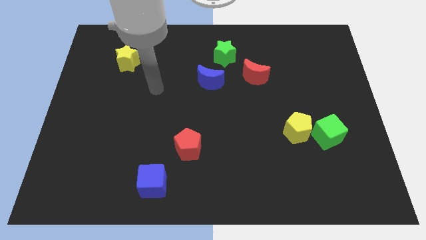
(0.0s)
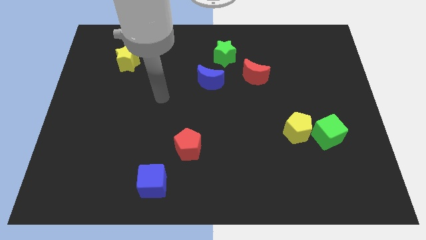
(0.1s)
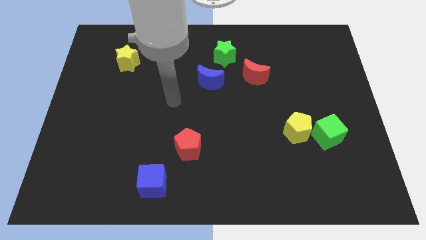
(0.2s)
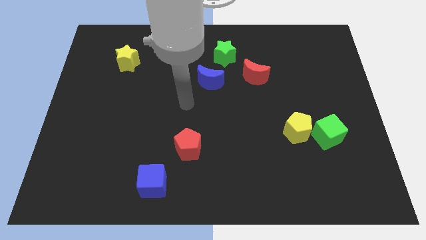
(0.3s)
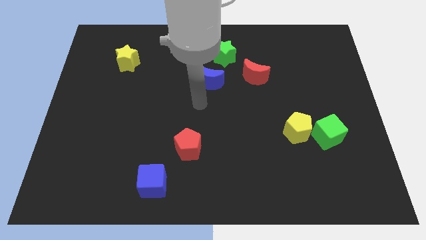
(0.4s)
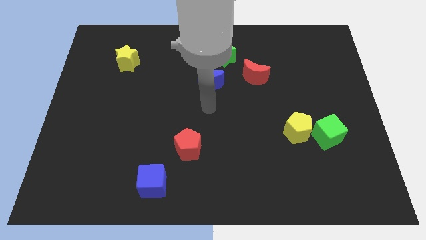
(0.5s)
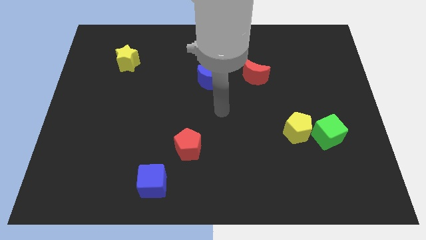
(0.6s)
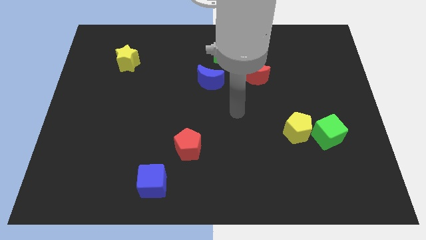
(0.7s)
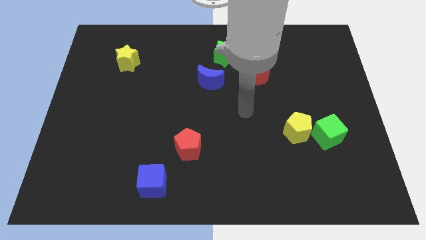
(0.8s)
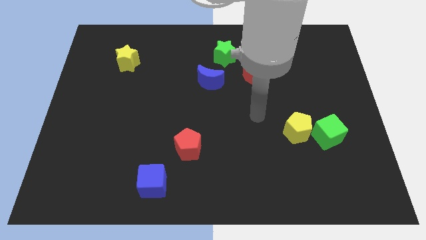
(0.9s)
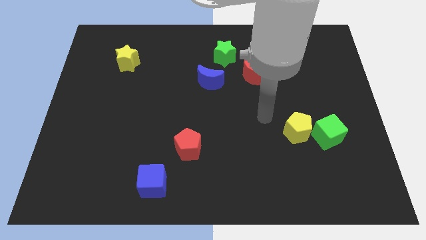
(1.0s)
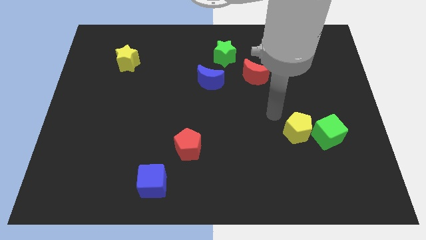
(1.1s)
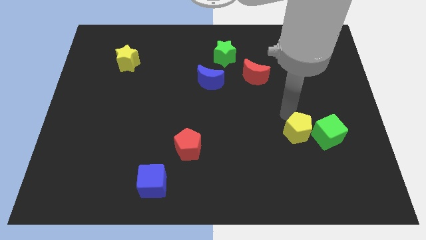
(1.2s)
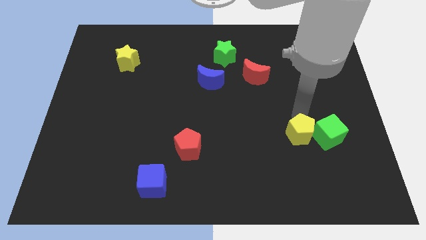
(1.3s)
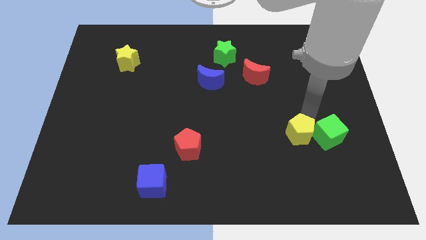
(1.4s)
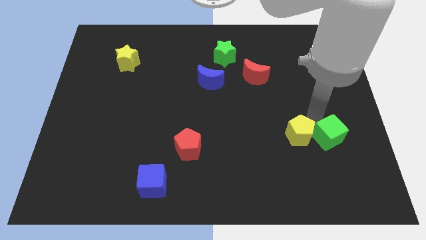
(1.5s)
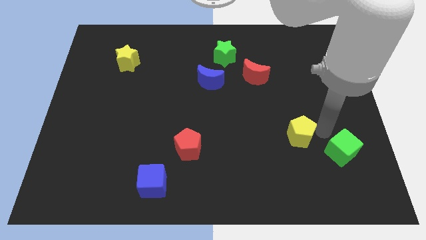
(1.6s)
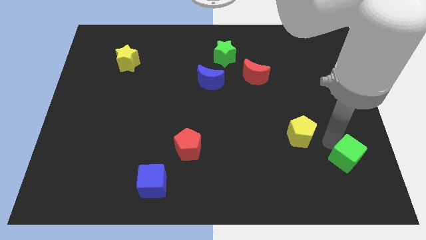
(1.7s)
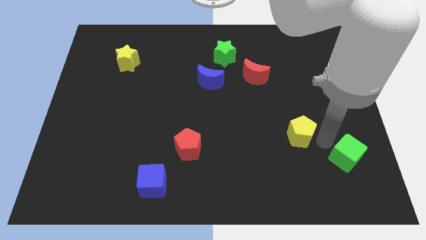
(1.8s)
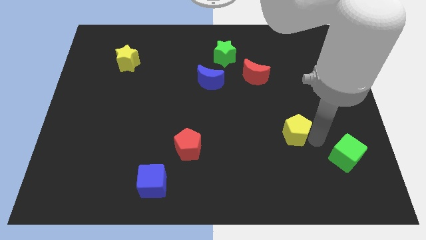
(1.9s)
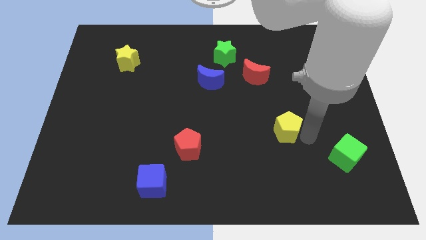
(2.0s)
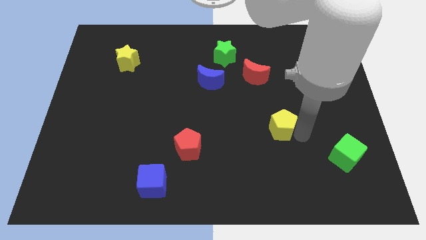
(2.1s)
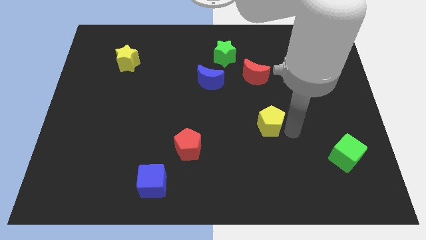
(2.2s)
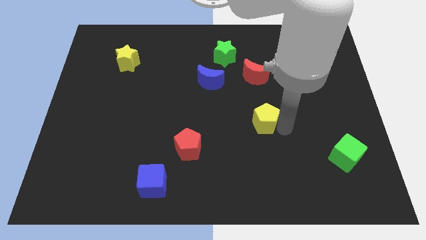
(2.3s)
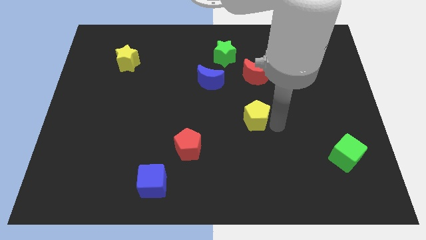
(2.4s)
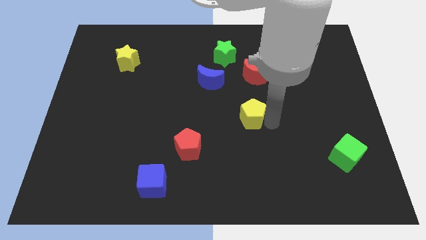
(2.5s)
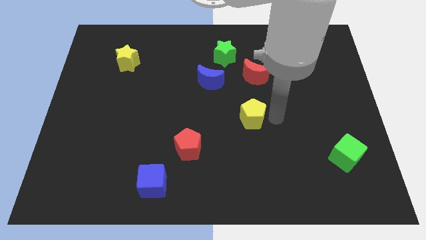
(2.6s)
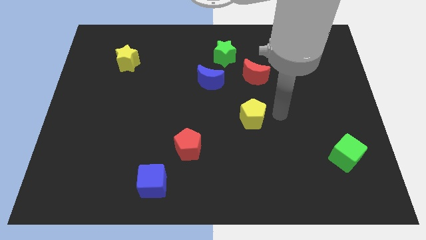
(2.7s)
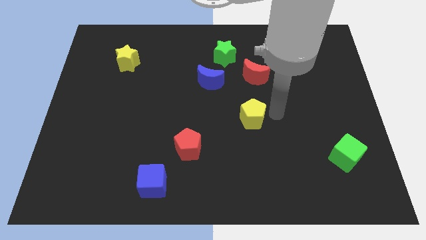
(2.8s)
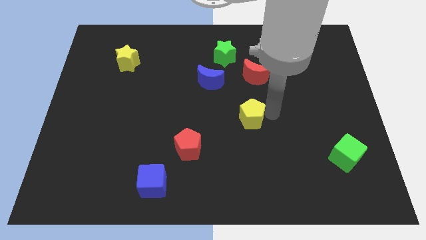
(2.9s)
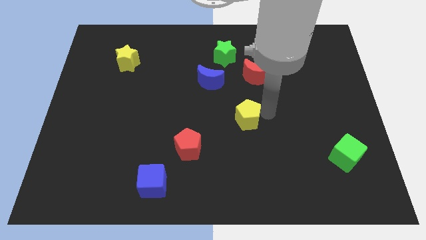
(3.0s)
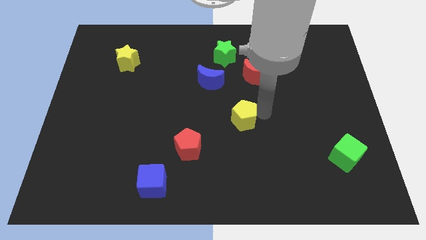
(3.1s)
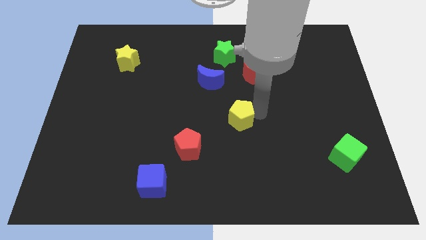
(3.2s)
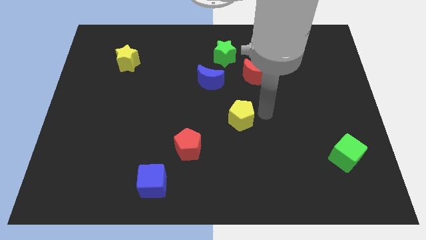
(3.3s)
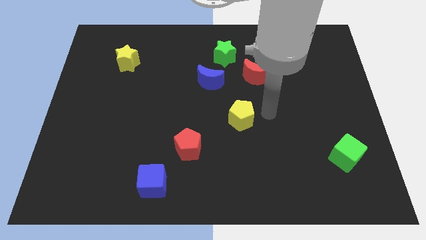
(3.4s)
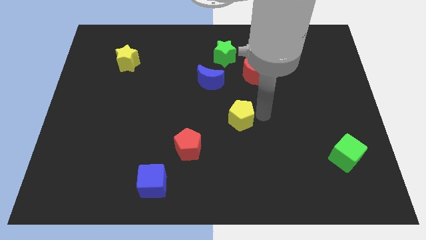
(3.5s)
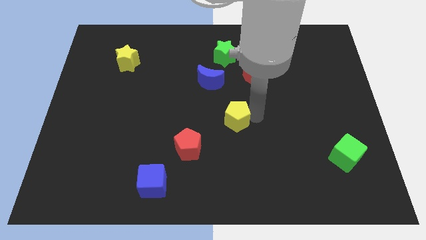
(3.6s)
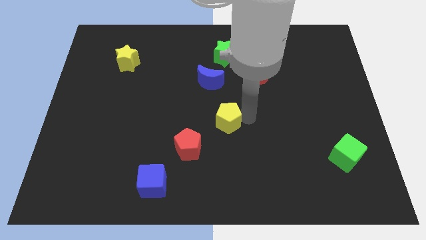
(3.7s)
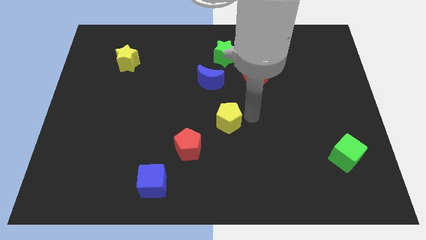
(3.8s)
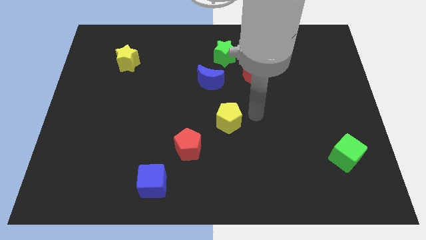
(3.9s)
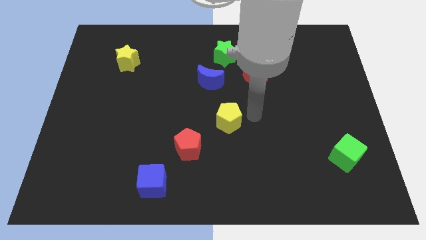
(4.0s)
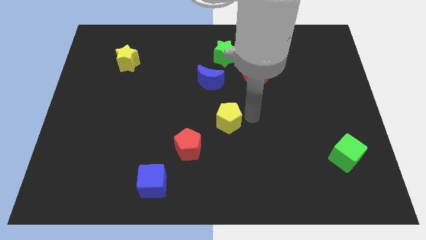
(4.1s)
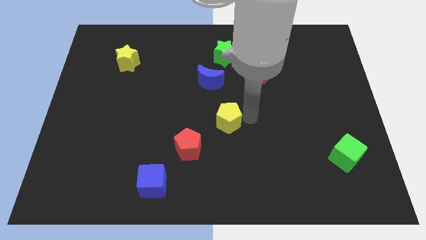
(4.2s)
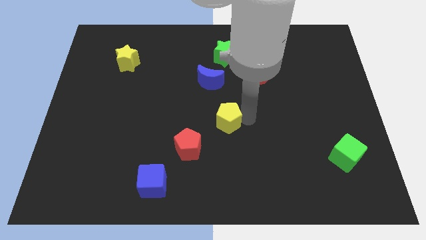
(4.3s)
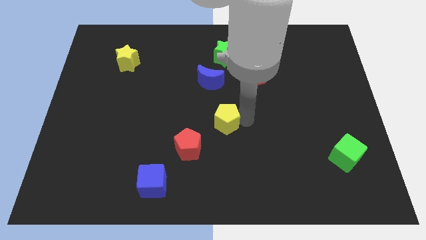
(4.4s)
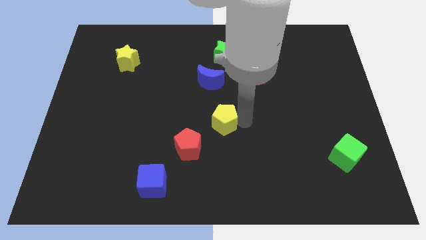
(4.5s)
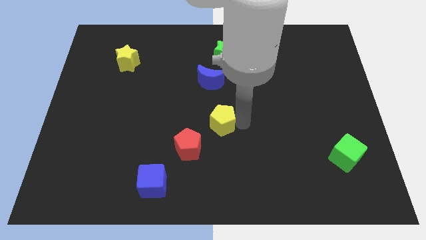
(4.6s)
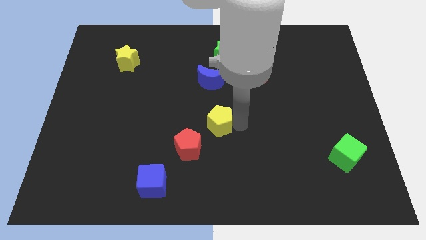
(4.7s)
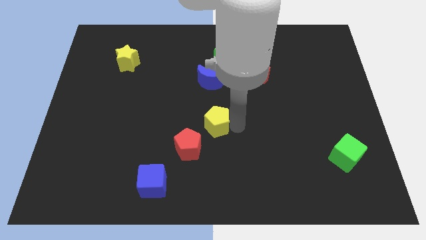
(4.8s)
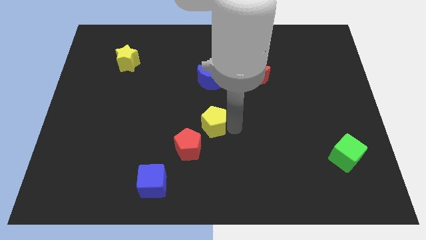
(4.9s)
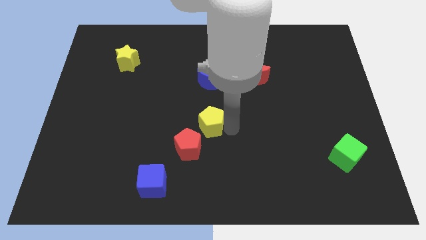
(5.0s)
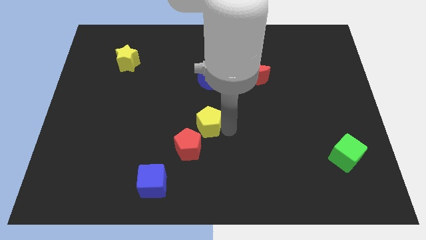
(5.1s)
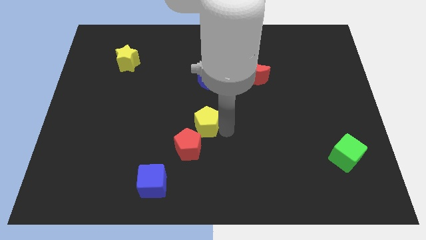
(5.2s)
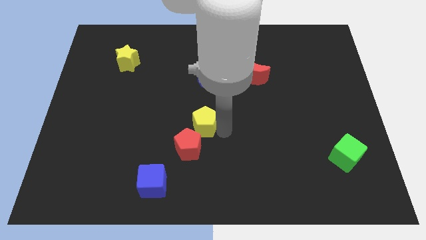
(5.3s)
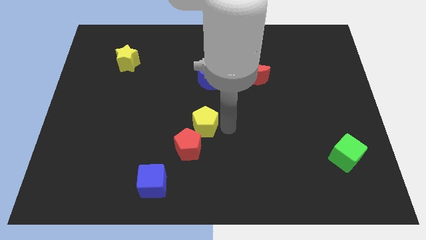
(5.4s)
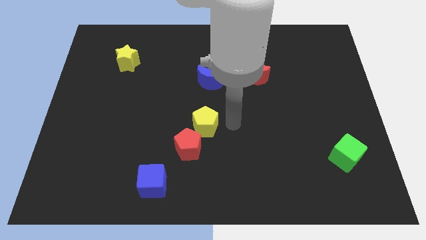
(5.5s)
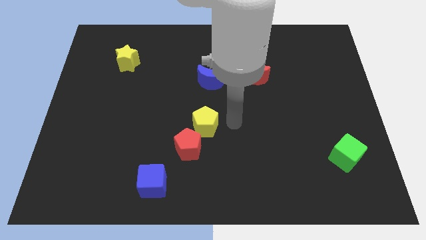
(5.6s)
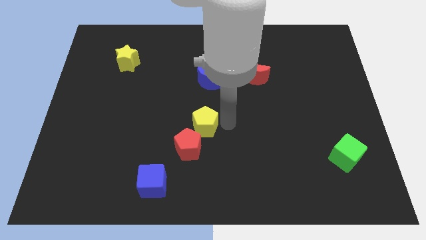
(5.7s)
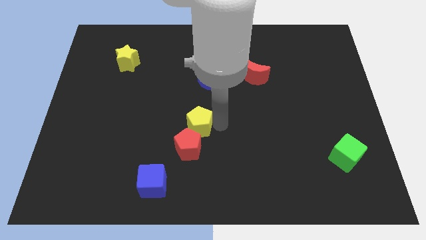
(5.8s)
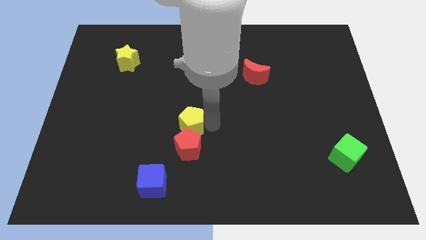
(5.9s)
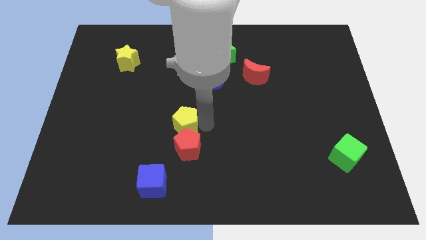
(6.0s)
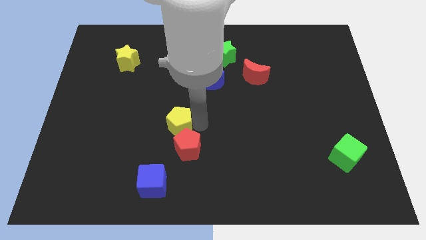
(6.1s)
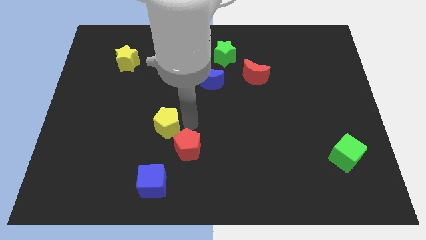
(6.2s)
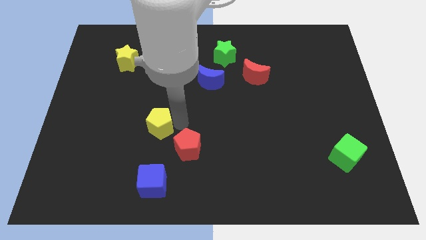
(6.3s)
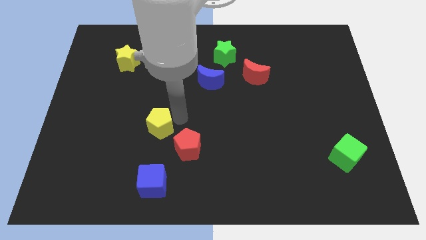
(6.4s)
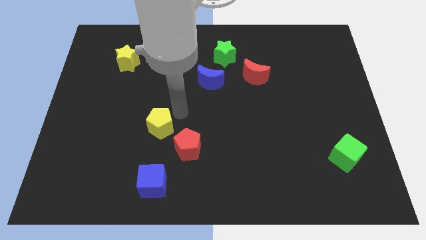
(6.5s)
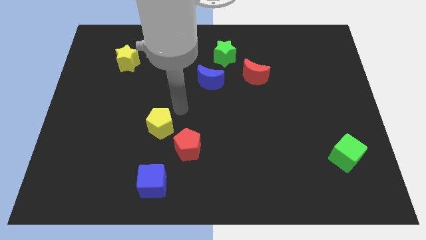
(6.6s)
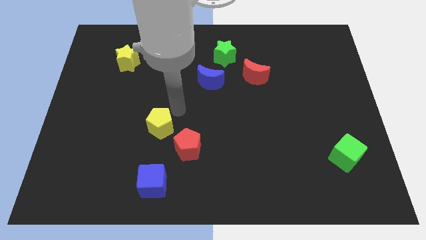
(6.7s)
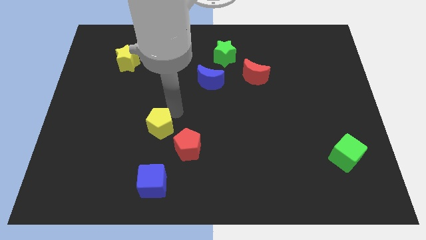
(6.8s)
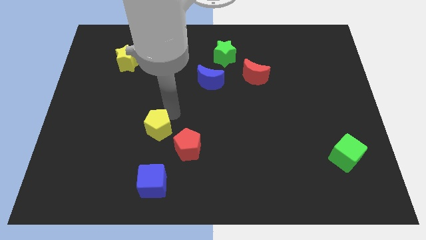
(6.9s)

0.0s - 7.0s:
push the yellow pentagon just left of the red pentagon
